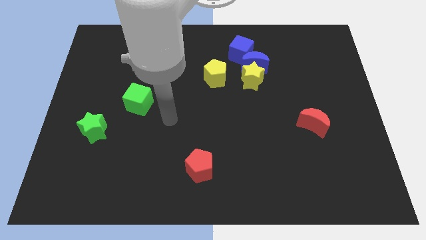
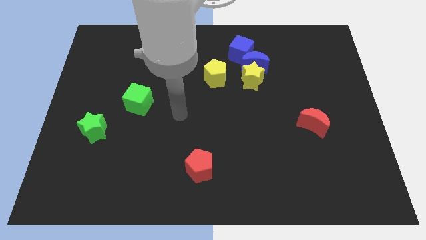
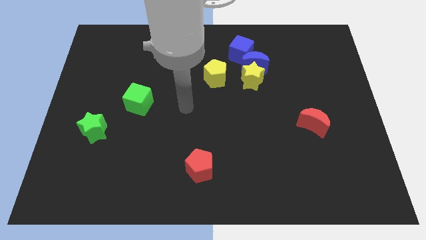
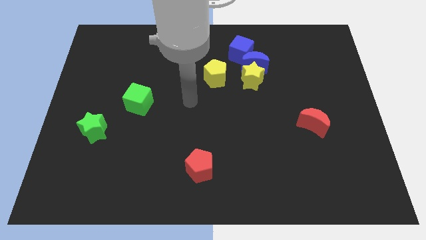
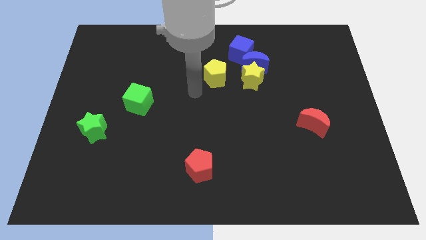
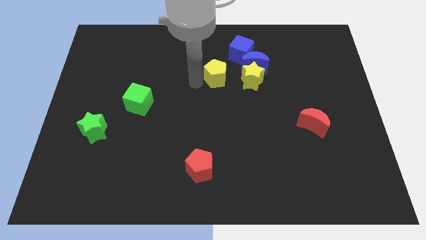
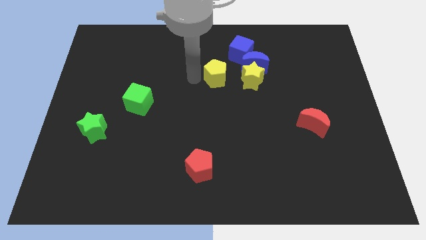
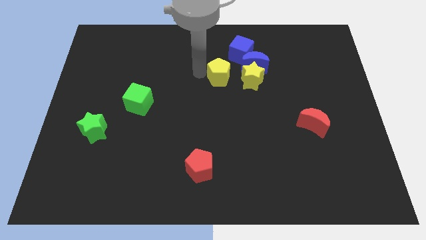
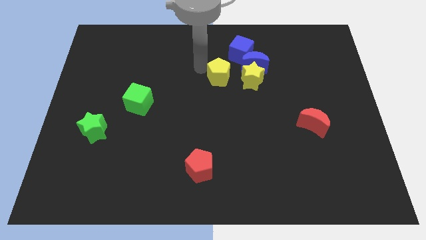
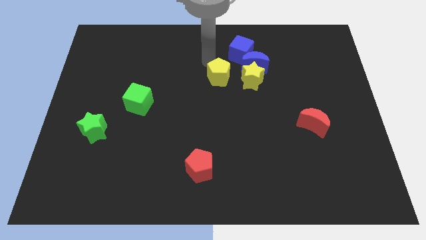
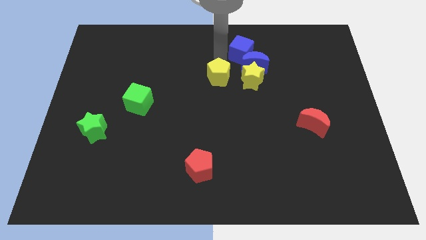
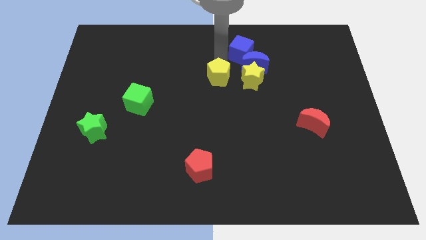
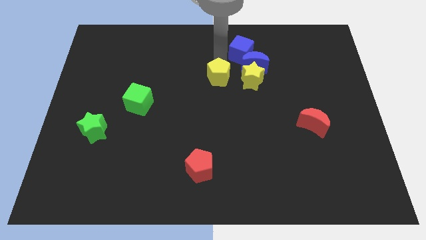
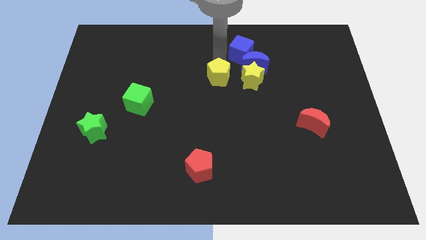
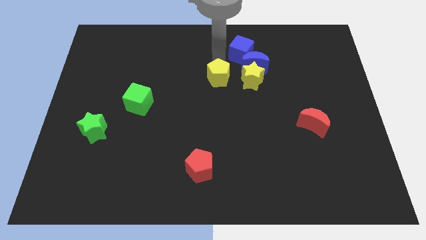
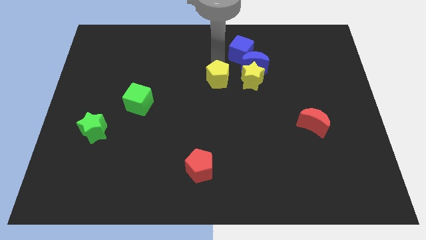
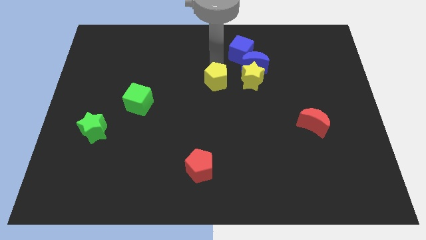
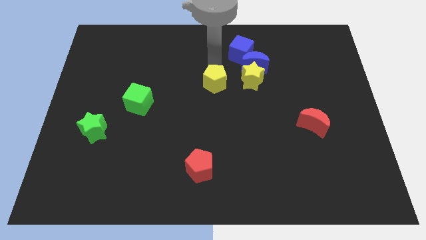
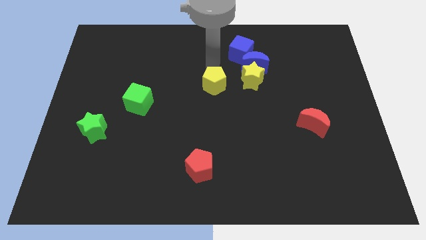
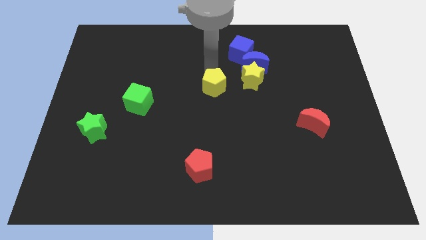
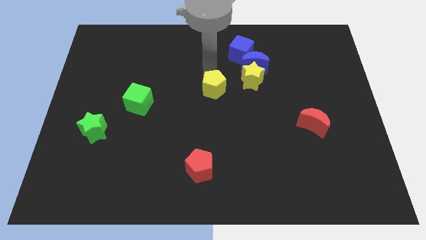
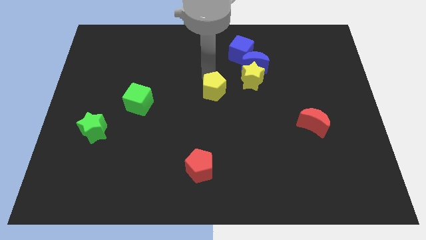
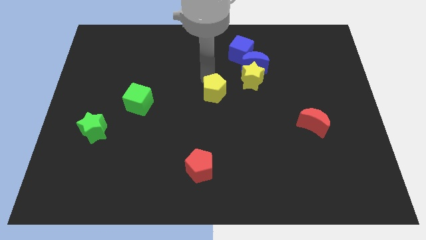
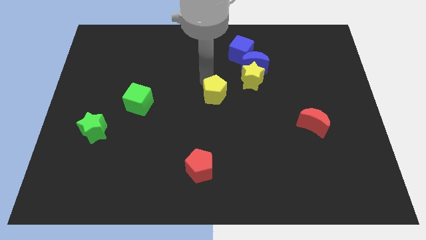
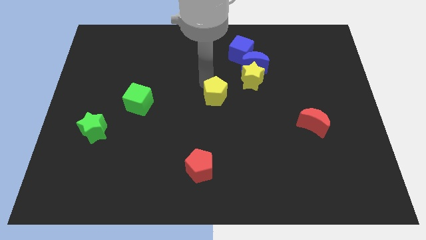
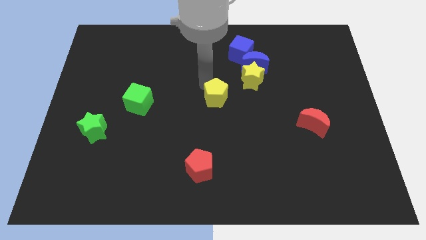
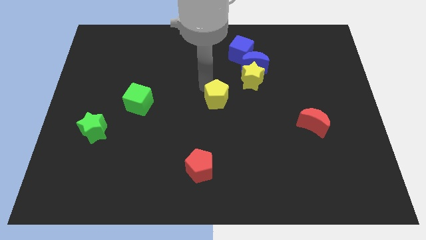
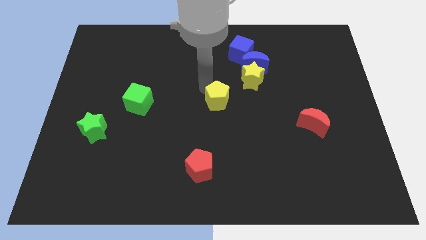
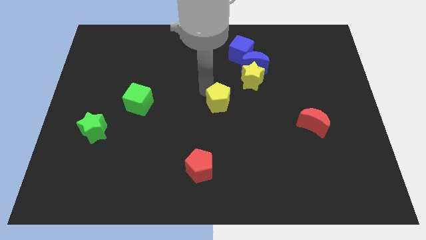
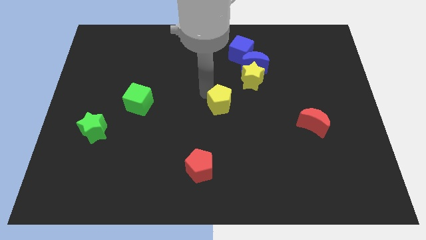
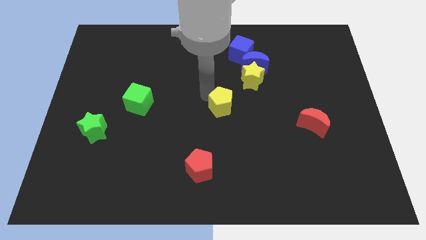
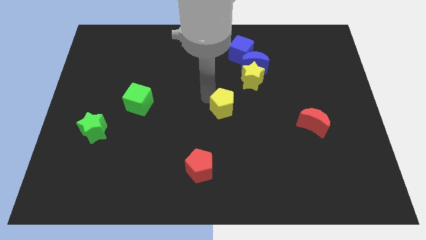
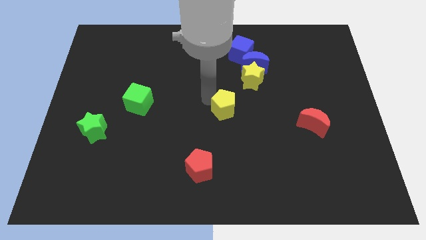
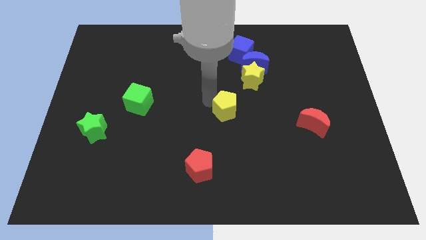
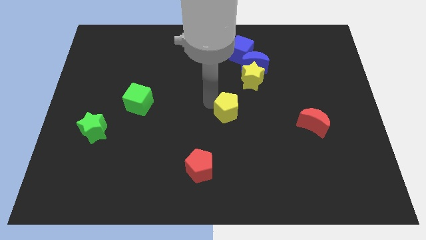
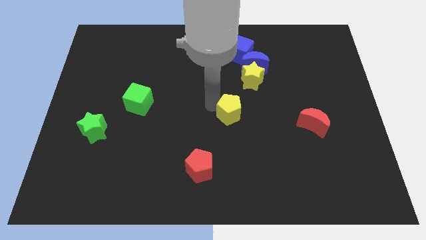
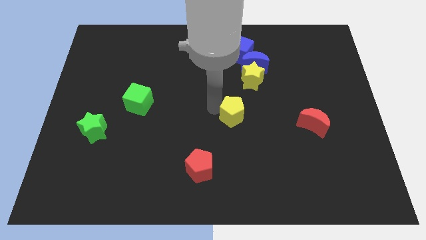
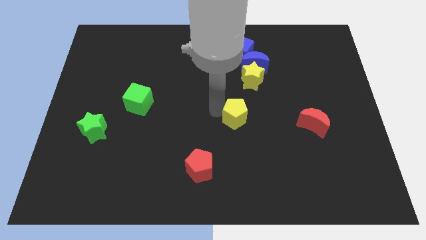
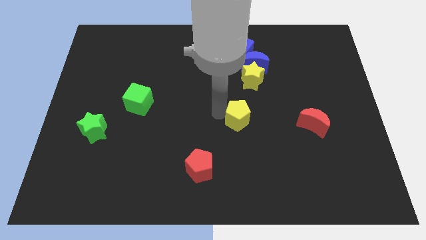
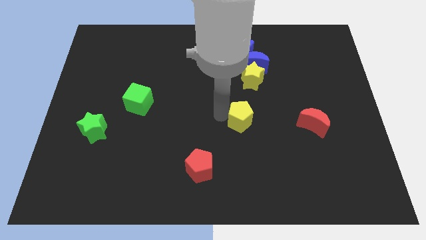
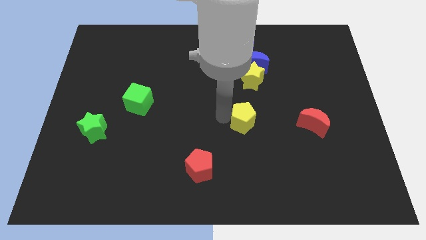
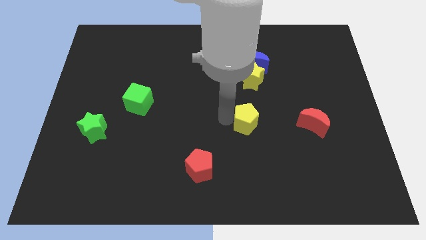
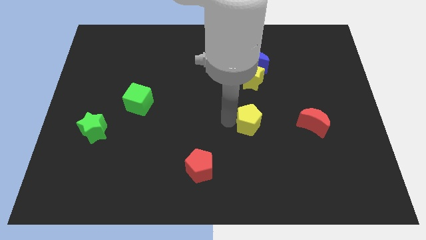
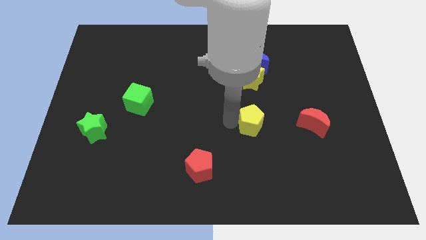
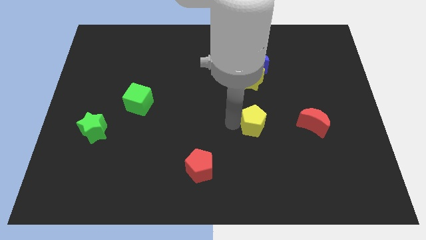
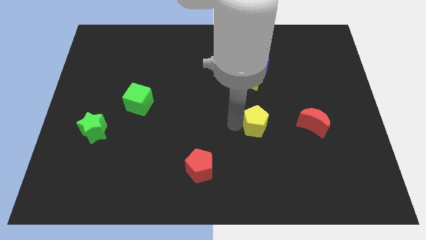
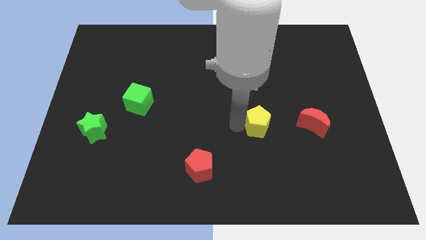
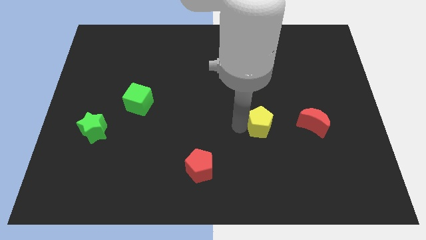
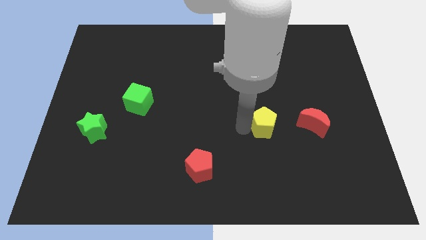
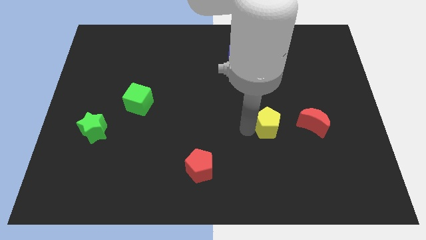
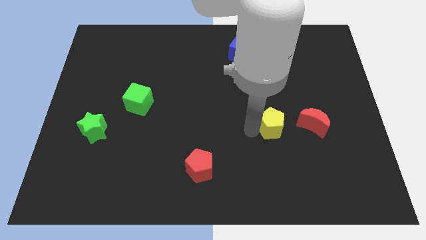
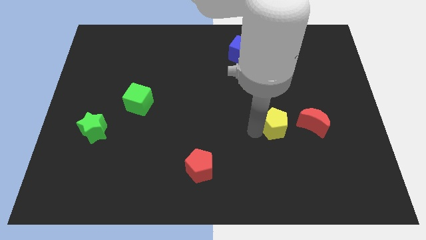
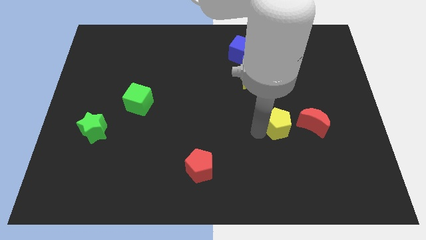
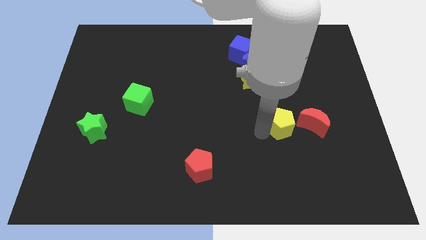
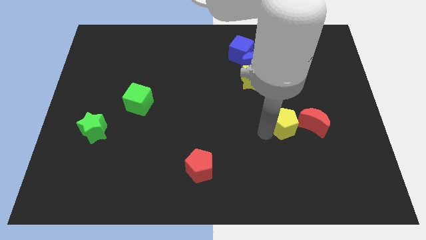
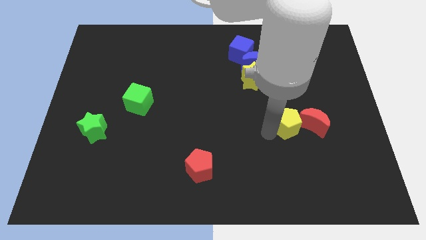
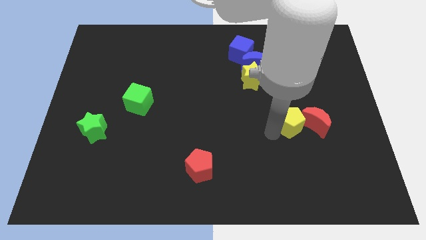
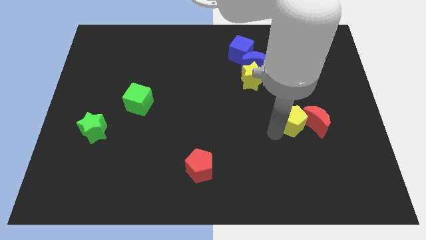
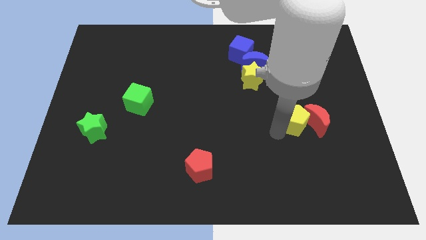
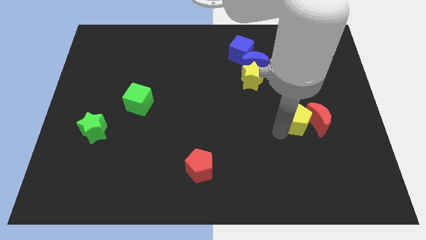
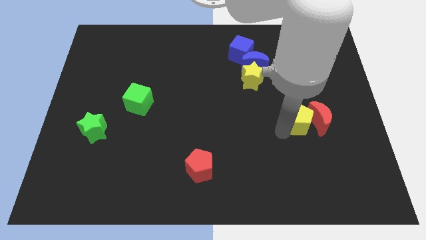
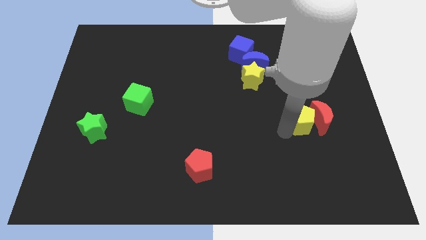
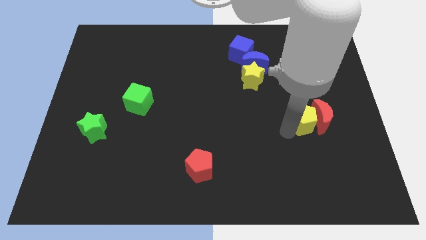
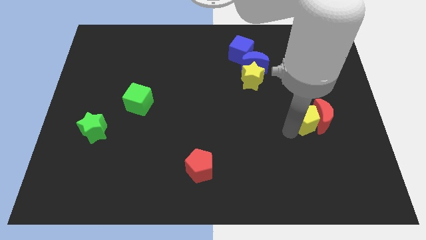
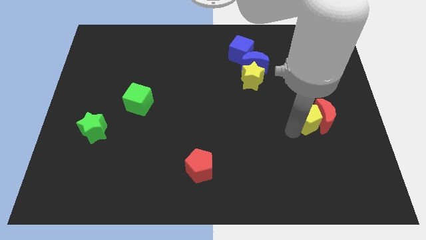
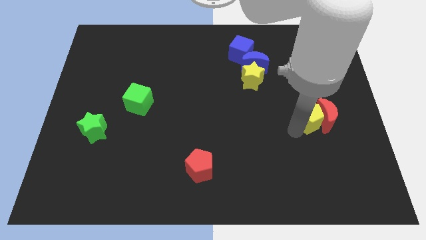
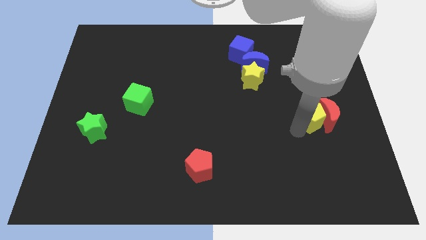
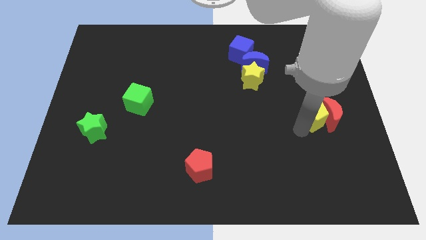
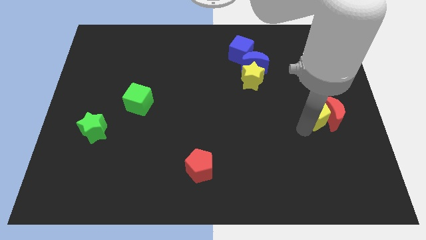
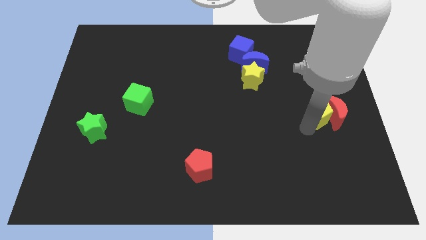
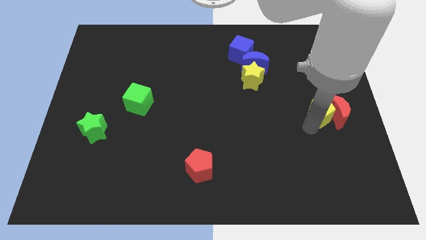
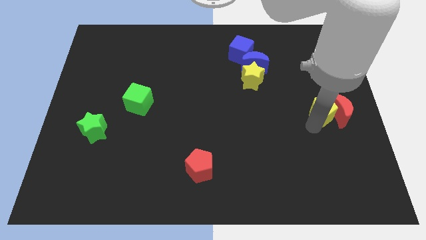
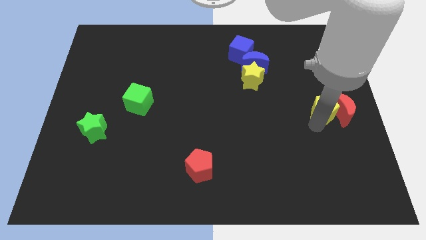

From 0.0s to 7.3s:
put the yellow pentagon to the right side of the board
